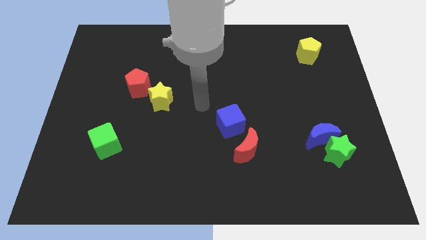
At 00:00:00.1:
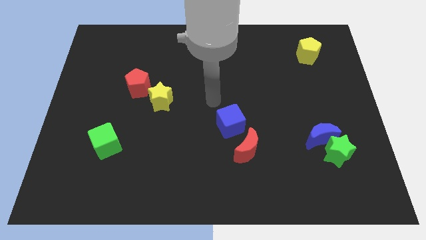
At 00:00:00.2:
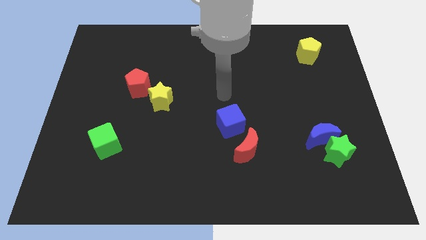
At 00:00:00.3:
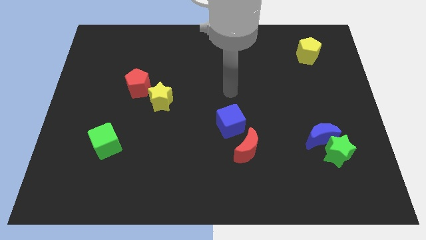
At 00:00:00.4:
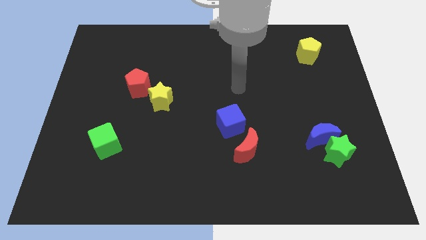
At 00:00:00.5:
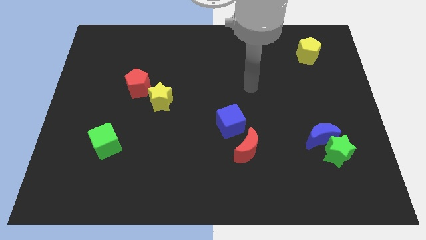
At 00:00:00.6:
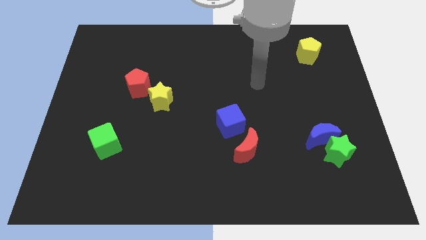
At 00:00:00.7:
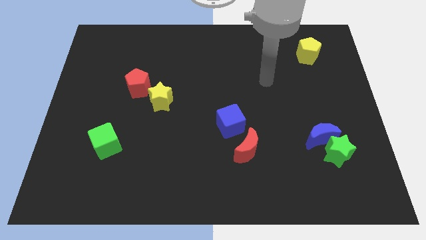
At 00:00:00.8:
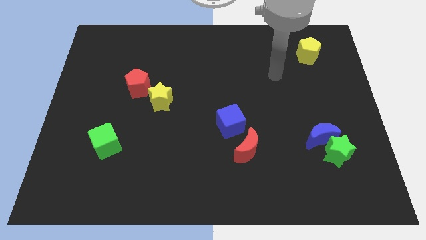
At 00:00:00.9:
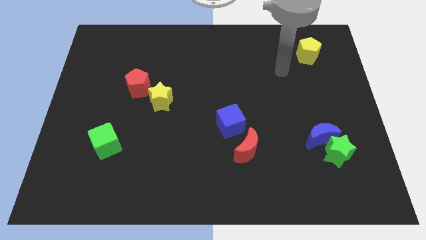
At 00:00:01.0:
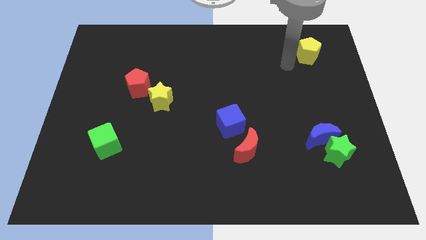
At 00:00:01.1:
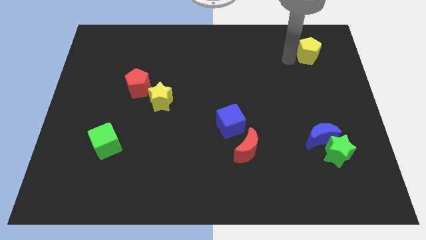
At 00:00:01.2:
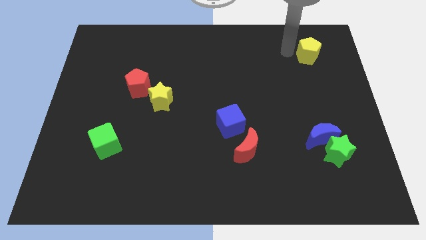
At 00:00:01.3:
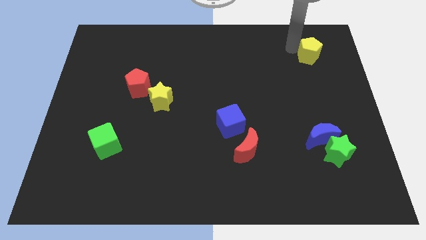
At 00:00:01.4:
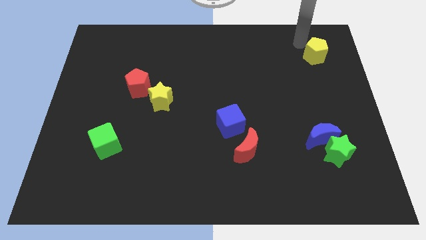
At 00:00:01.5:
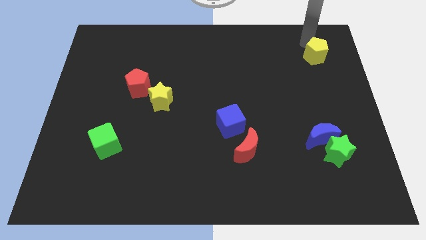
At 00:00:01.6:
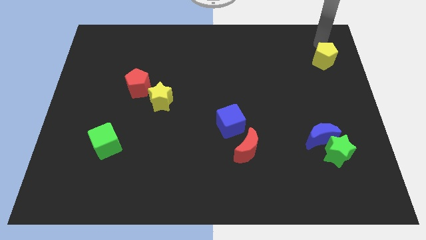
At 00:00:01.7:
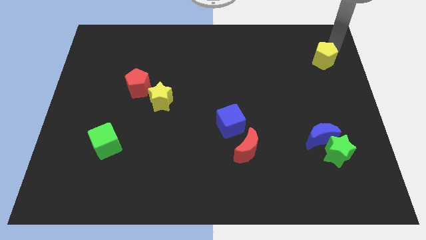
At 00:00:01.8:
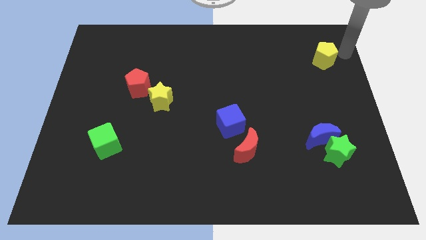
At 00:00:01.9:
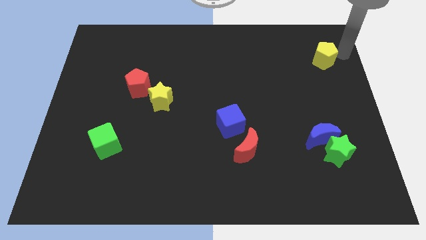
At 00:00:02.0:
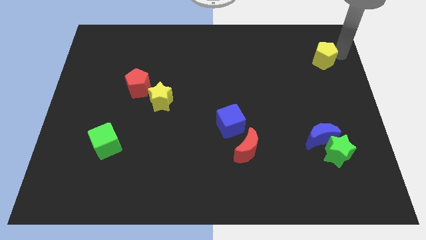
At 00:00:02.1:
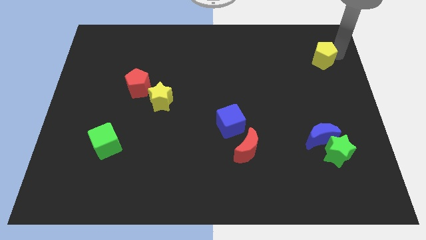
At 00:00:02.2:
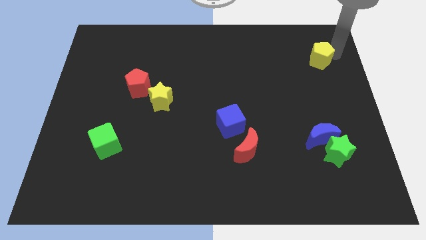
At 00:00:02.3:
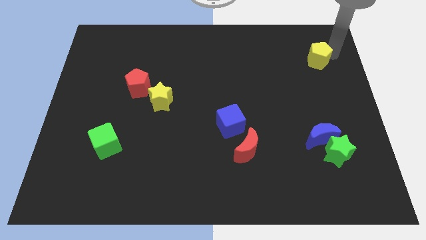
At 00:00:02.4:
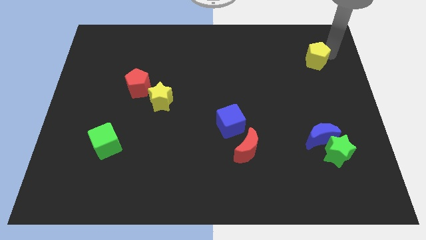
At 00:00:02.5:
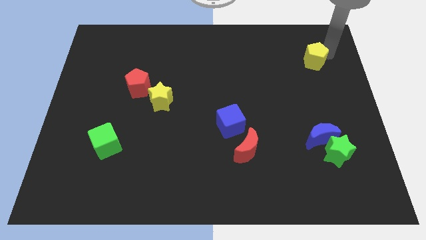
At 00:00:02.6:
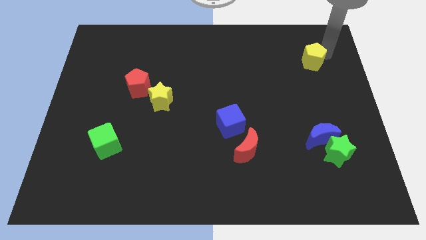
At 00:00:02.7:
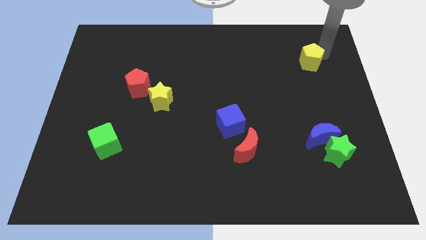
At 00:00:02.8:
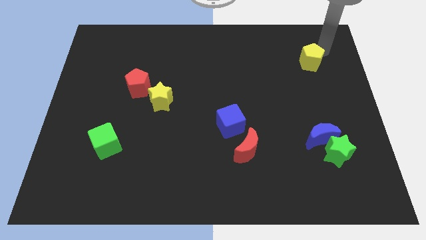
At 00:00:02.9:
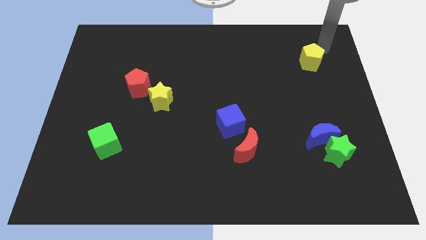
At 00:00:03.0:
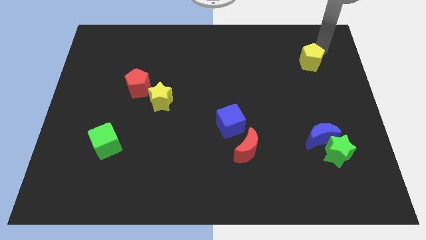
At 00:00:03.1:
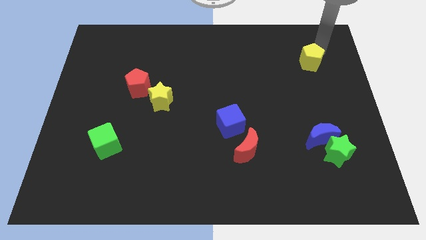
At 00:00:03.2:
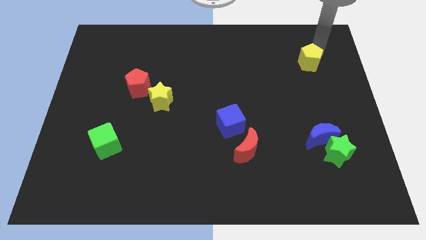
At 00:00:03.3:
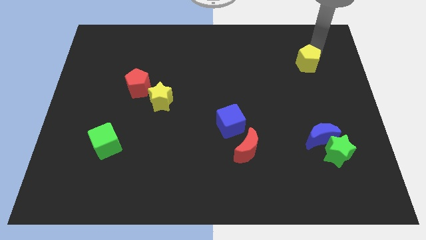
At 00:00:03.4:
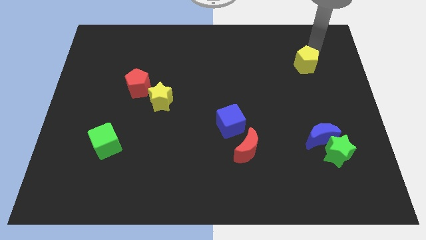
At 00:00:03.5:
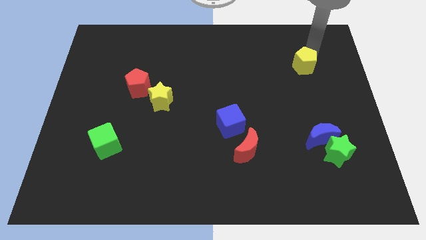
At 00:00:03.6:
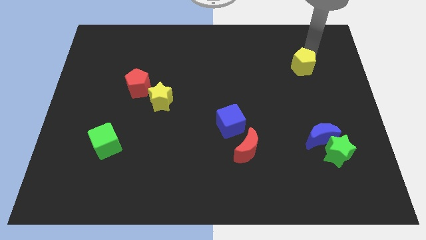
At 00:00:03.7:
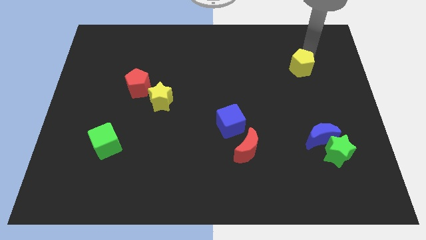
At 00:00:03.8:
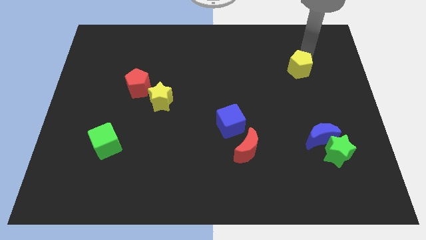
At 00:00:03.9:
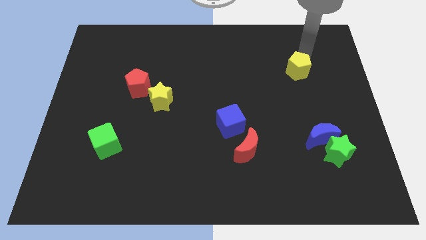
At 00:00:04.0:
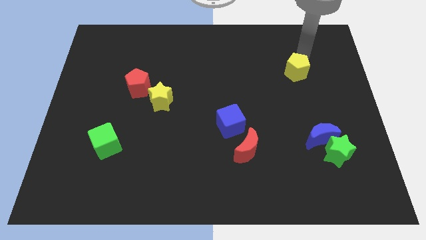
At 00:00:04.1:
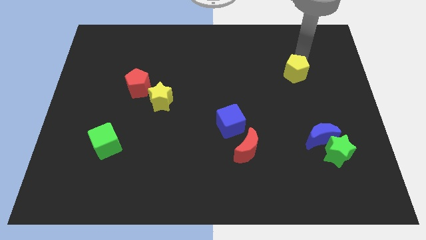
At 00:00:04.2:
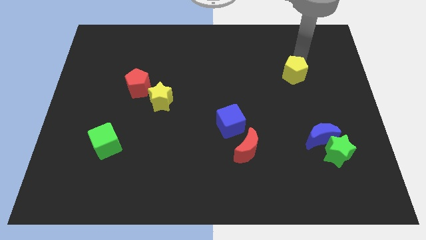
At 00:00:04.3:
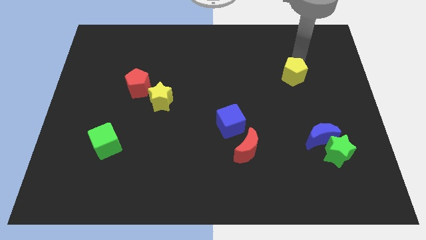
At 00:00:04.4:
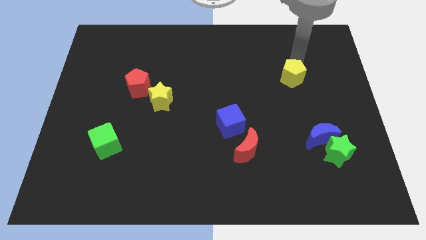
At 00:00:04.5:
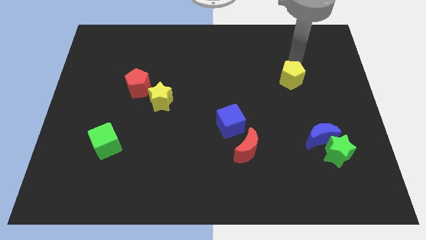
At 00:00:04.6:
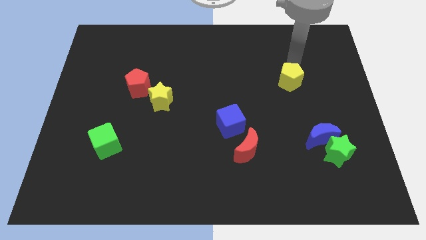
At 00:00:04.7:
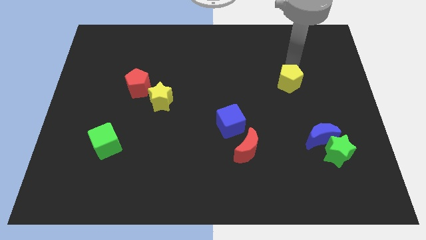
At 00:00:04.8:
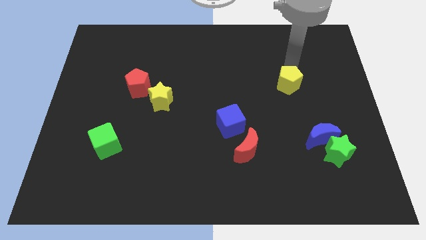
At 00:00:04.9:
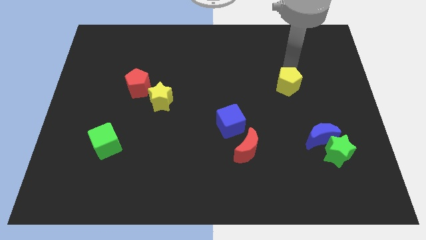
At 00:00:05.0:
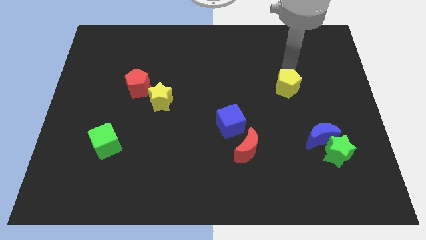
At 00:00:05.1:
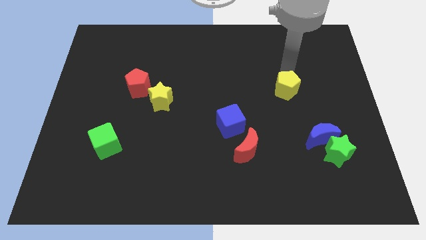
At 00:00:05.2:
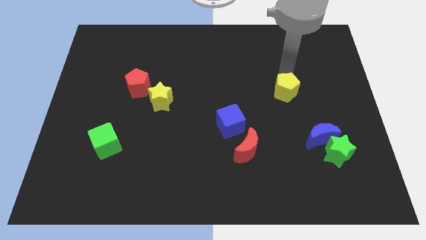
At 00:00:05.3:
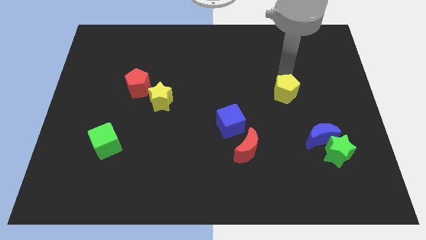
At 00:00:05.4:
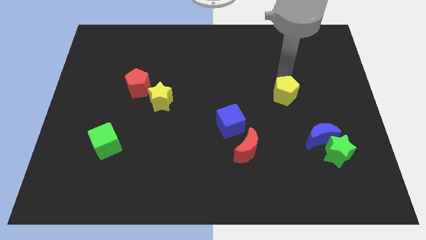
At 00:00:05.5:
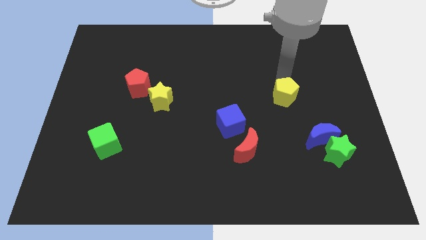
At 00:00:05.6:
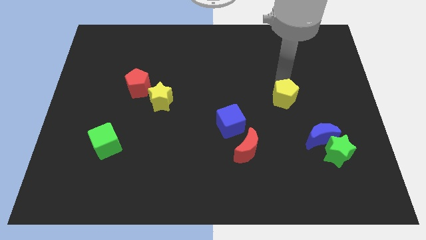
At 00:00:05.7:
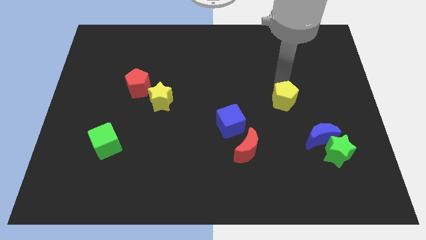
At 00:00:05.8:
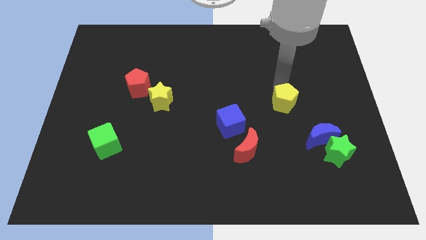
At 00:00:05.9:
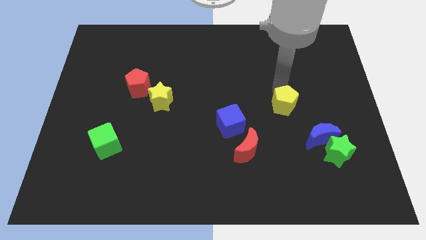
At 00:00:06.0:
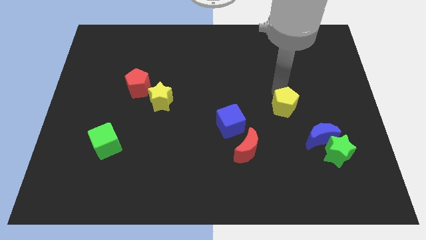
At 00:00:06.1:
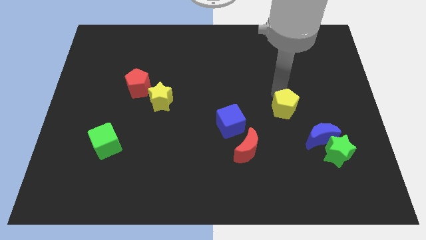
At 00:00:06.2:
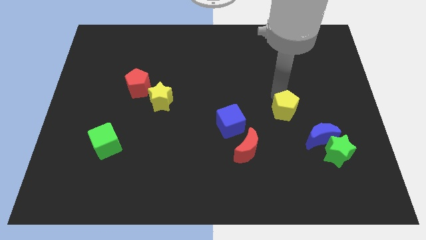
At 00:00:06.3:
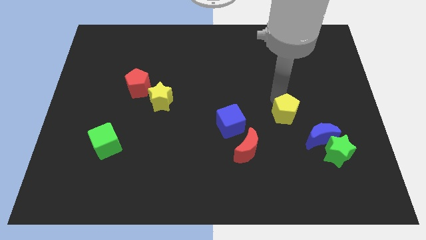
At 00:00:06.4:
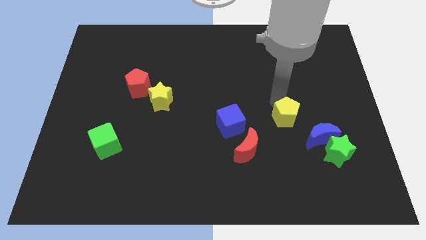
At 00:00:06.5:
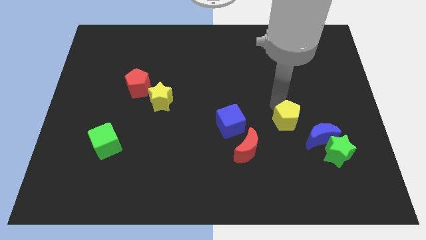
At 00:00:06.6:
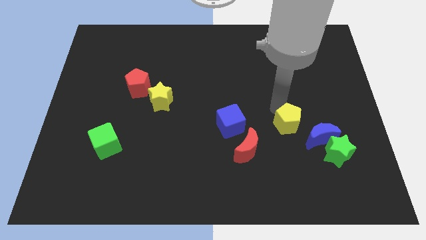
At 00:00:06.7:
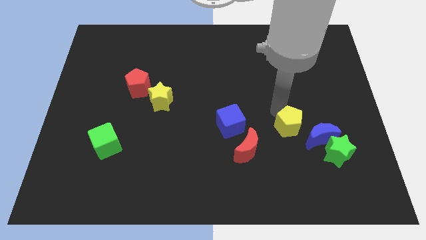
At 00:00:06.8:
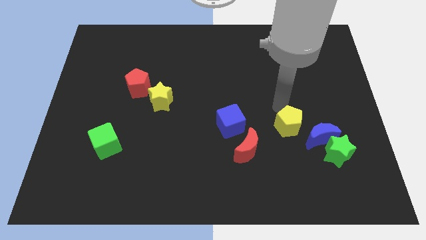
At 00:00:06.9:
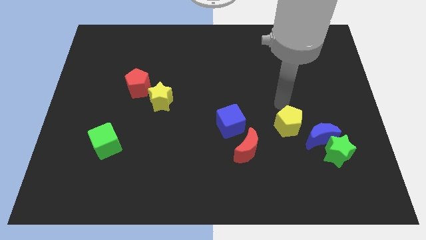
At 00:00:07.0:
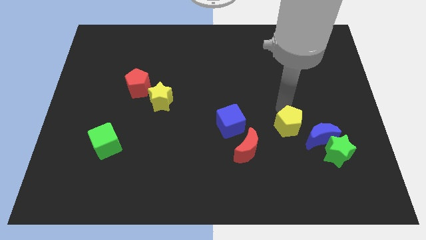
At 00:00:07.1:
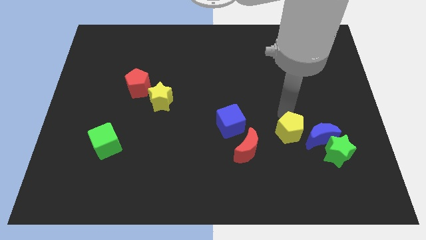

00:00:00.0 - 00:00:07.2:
move the yellow pentagon to the right side of the red moon

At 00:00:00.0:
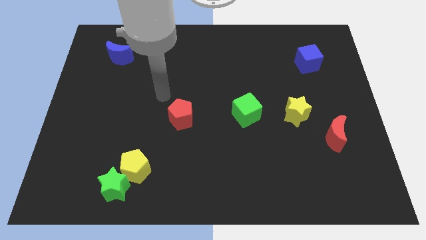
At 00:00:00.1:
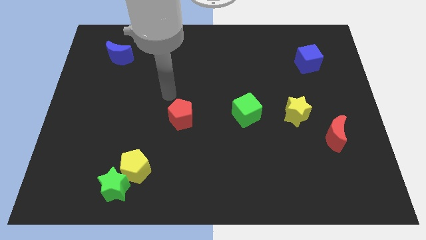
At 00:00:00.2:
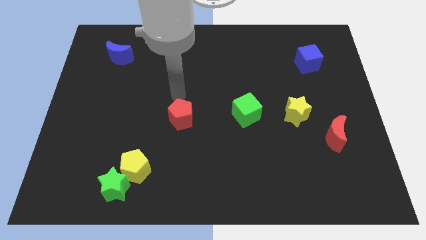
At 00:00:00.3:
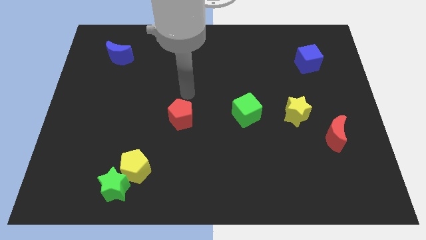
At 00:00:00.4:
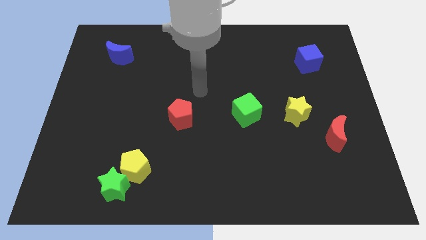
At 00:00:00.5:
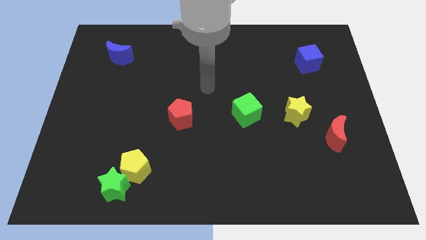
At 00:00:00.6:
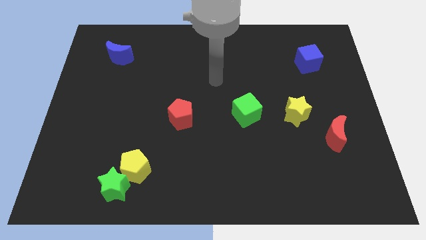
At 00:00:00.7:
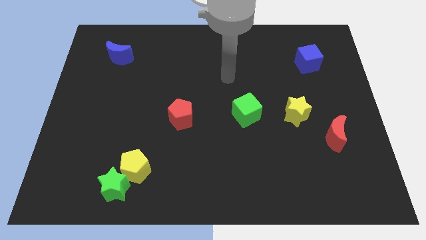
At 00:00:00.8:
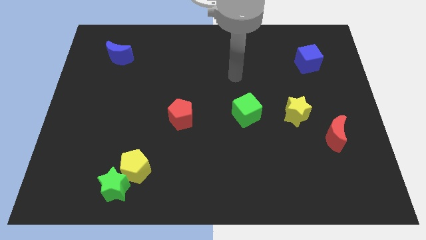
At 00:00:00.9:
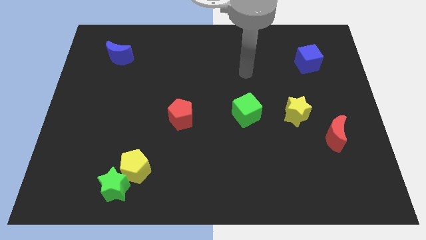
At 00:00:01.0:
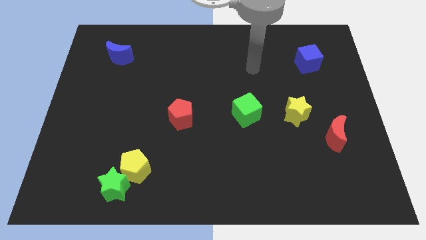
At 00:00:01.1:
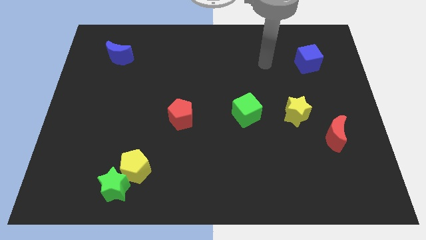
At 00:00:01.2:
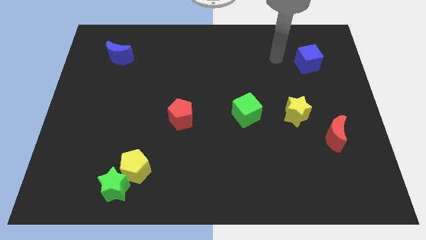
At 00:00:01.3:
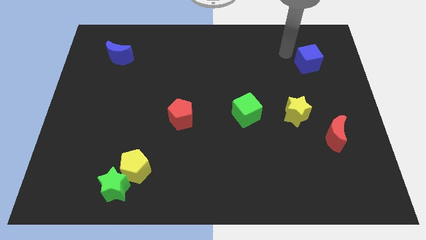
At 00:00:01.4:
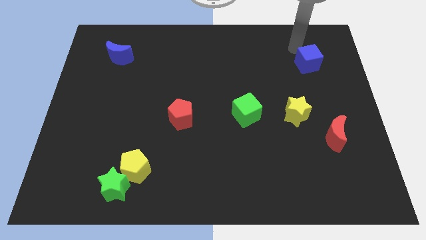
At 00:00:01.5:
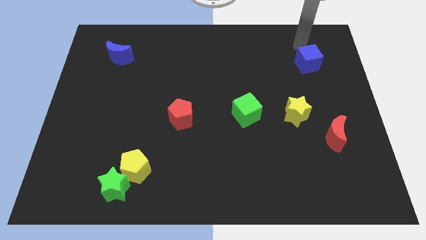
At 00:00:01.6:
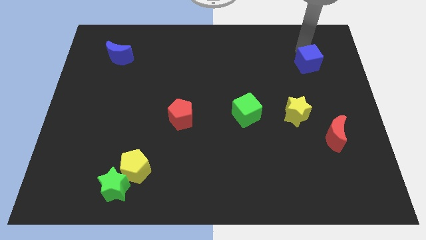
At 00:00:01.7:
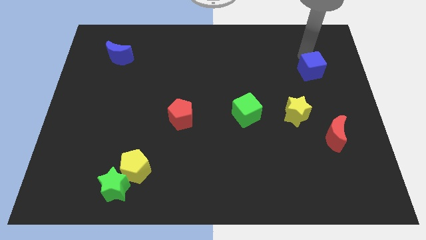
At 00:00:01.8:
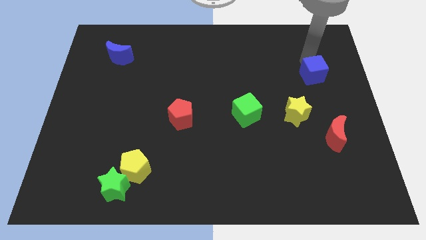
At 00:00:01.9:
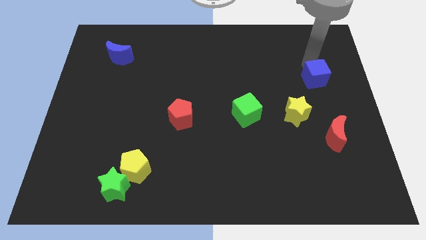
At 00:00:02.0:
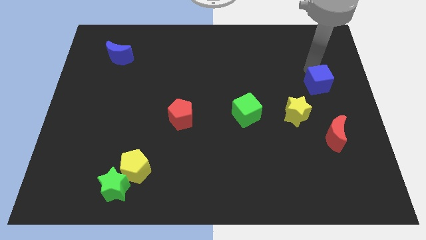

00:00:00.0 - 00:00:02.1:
slide the blue cube to the top of the red moon
